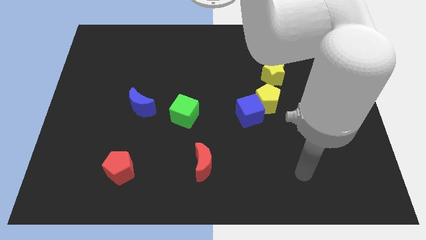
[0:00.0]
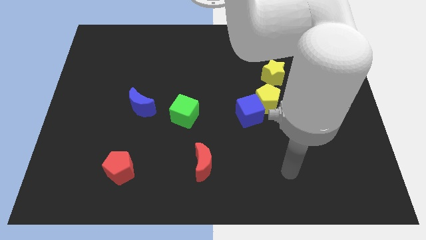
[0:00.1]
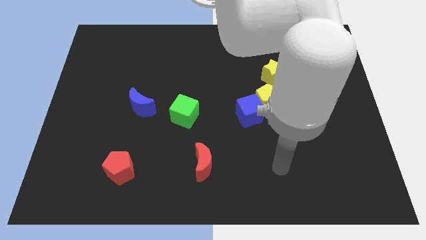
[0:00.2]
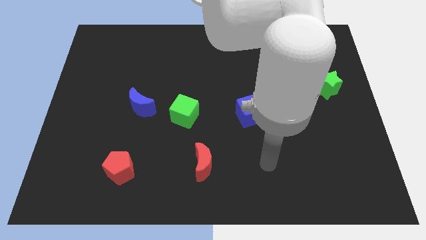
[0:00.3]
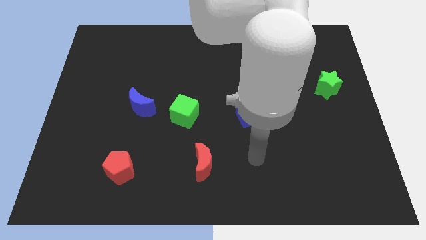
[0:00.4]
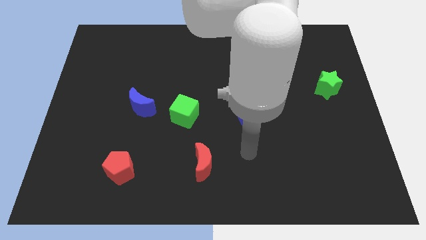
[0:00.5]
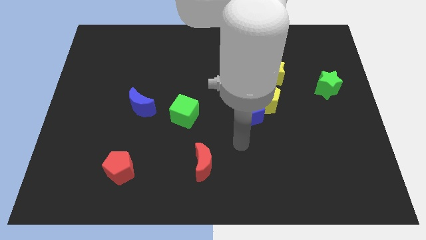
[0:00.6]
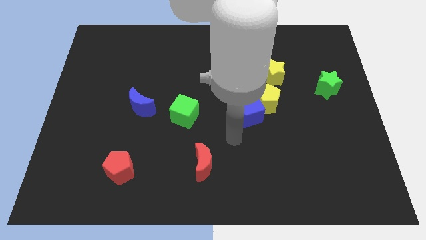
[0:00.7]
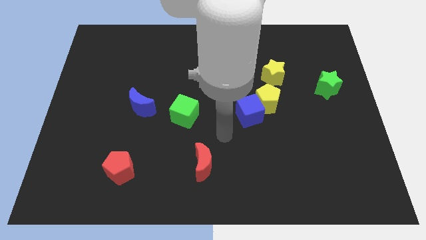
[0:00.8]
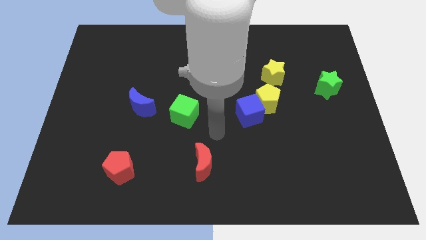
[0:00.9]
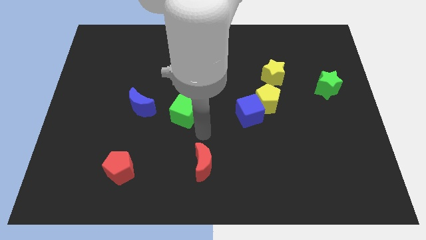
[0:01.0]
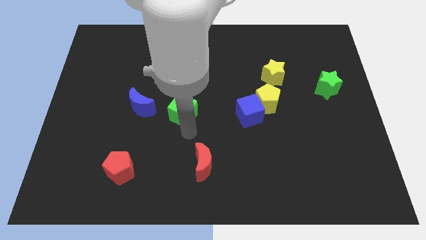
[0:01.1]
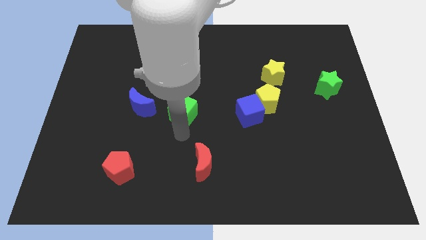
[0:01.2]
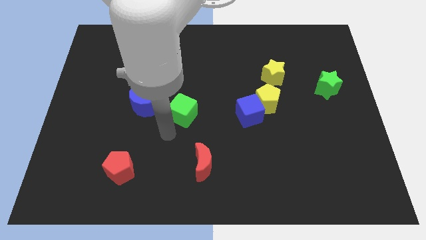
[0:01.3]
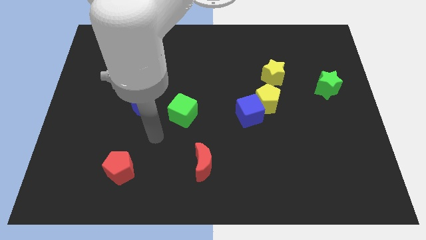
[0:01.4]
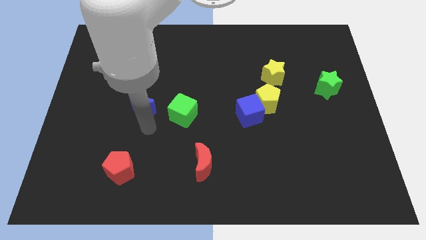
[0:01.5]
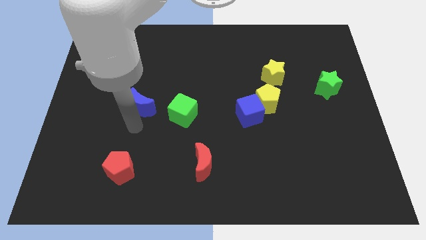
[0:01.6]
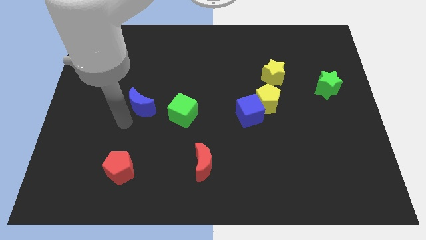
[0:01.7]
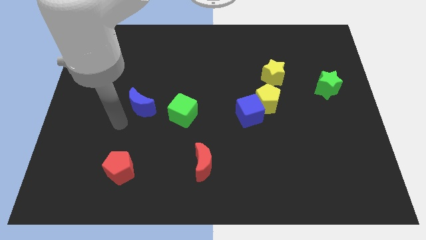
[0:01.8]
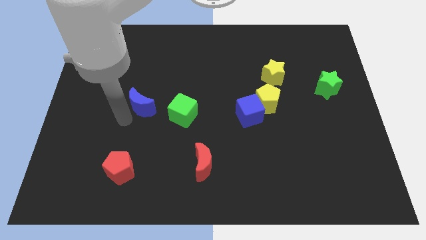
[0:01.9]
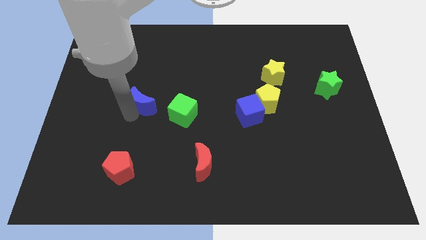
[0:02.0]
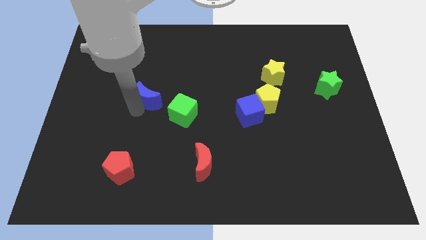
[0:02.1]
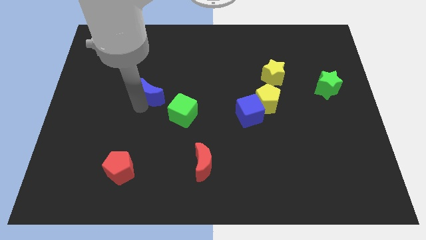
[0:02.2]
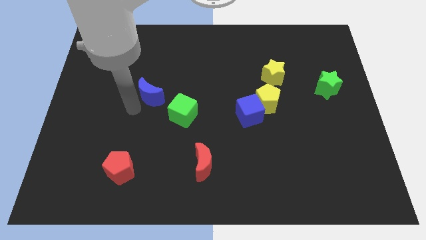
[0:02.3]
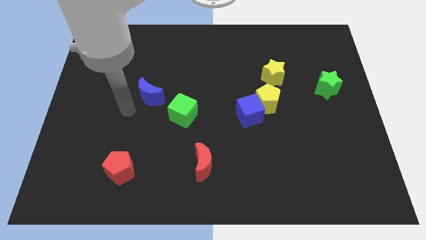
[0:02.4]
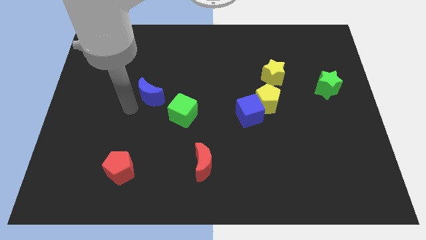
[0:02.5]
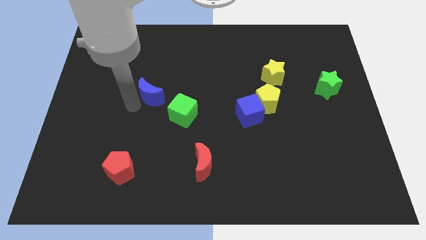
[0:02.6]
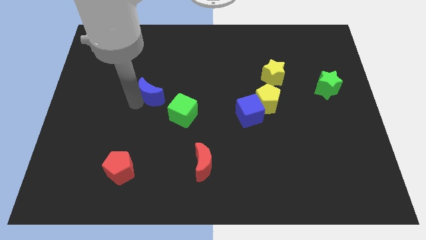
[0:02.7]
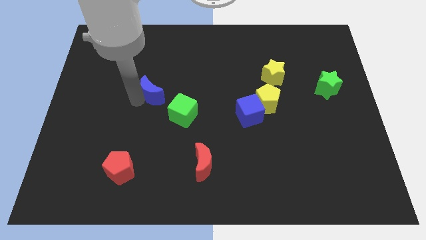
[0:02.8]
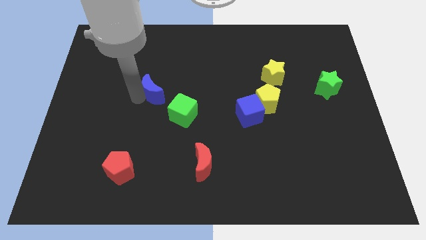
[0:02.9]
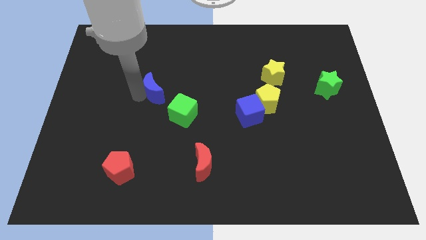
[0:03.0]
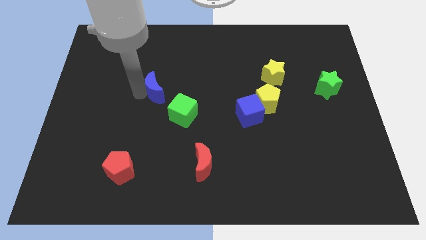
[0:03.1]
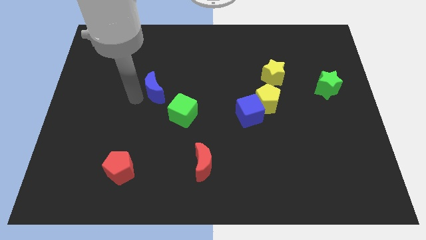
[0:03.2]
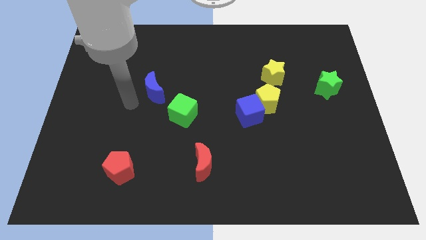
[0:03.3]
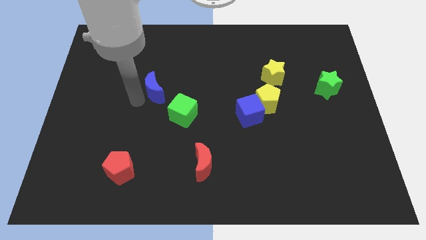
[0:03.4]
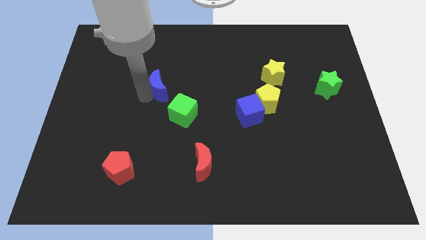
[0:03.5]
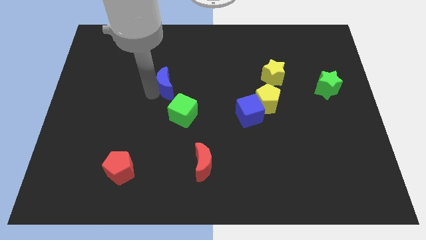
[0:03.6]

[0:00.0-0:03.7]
slide the blue moon up and to the right a little bit

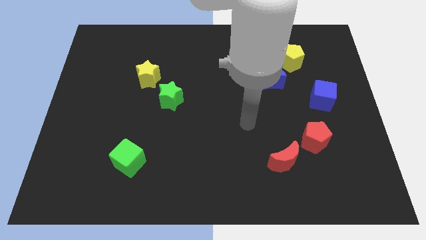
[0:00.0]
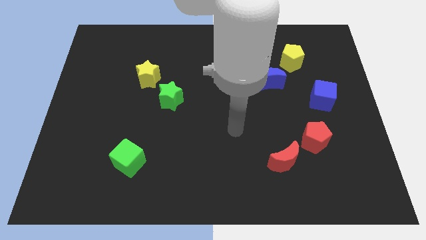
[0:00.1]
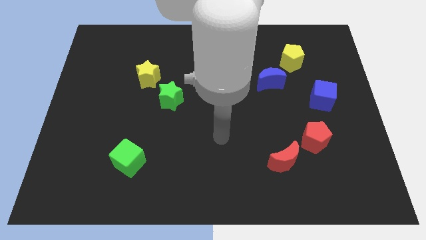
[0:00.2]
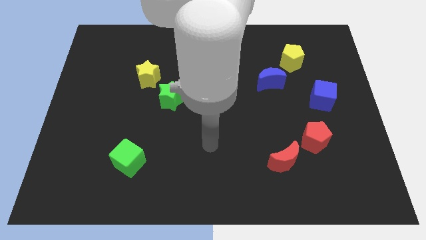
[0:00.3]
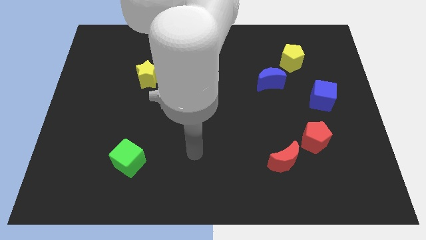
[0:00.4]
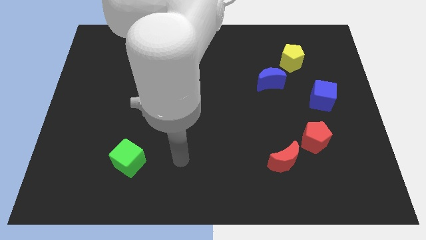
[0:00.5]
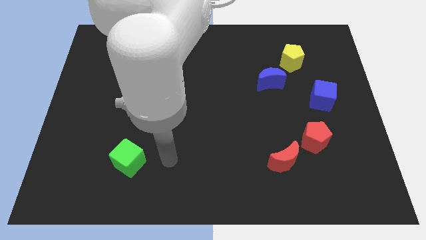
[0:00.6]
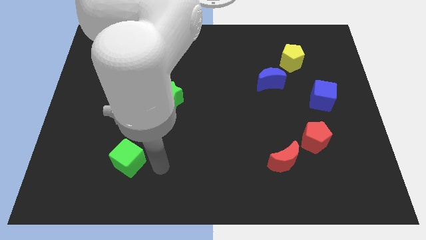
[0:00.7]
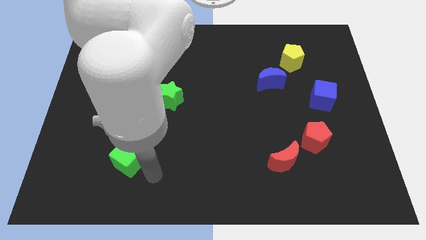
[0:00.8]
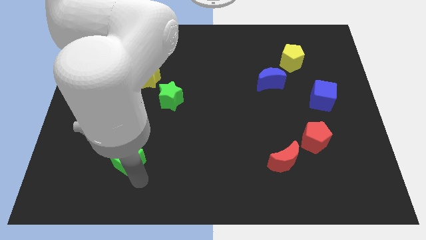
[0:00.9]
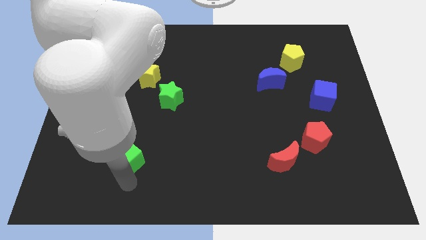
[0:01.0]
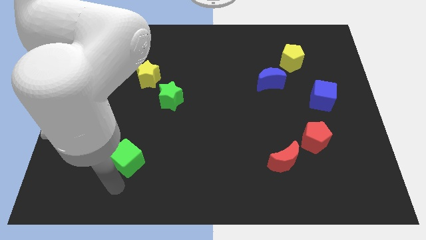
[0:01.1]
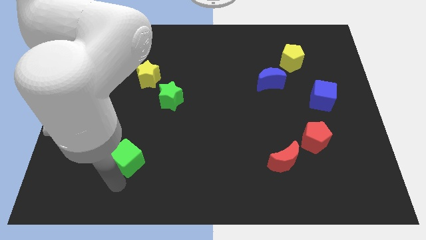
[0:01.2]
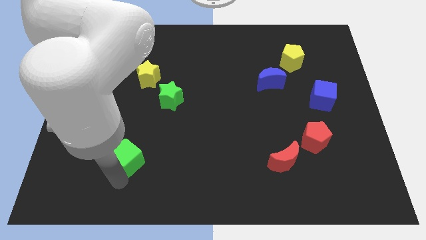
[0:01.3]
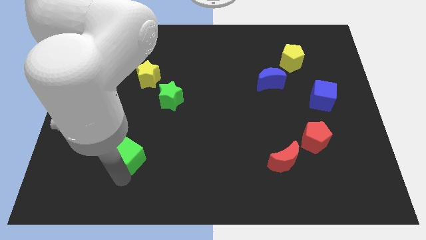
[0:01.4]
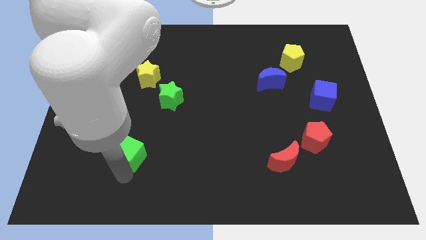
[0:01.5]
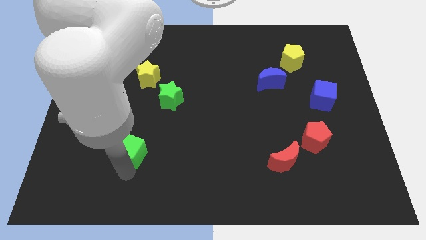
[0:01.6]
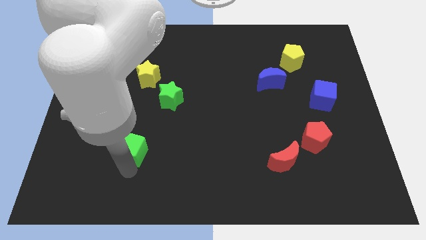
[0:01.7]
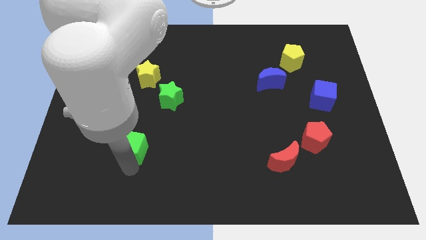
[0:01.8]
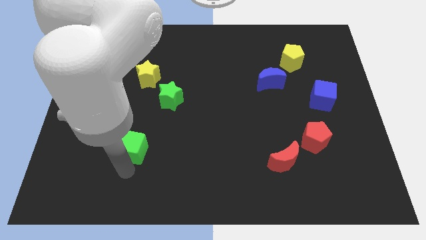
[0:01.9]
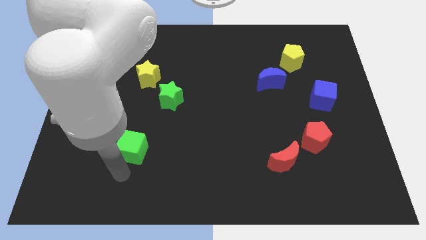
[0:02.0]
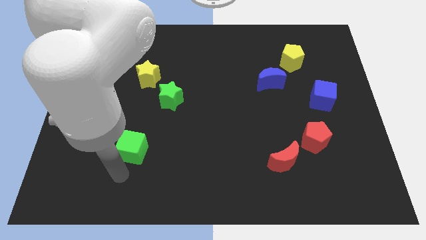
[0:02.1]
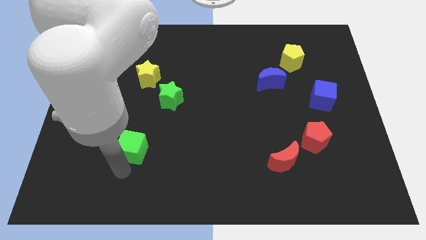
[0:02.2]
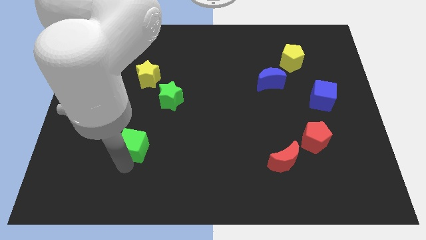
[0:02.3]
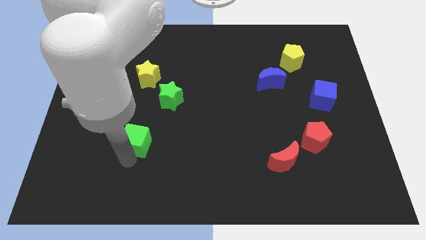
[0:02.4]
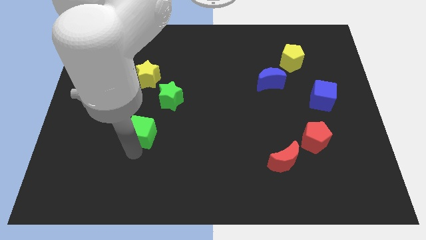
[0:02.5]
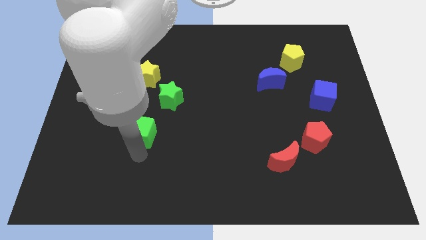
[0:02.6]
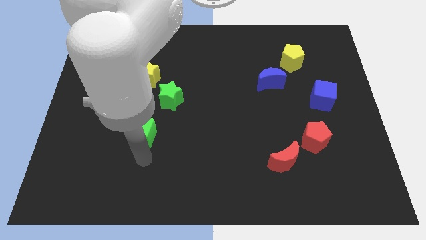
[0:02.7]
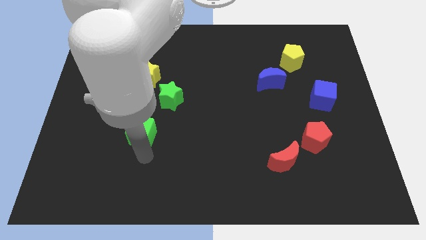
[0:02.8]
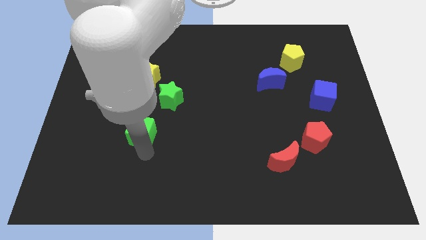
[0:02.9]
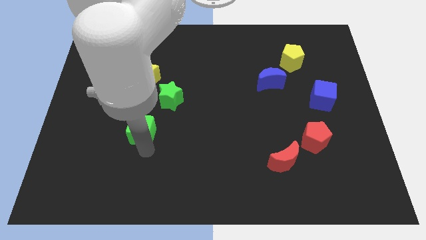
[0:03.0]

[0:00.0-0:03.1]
slightly push the green cube up

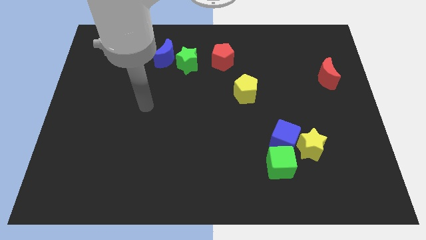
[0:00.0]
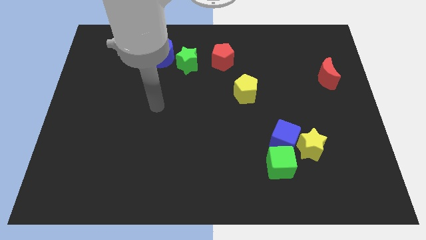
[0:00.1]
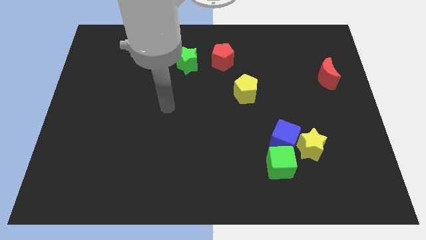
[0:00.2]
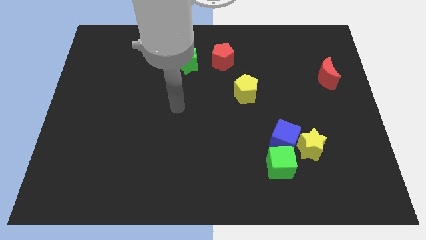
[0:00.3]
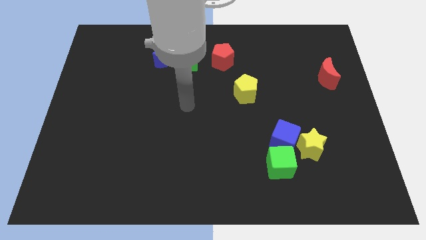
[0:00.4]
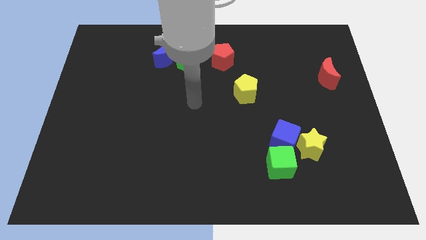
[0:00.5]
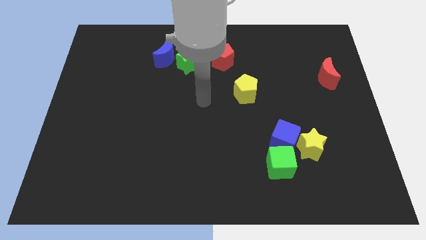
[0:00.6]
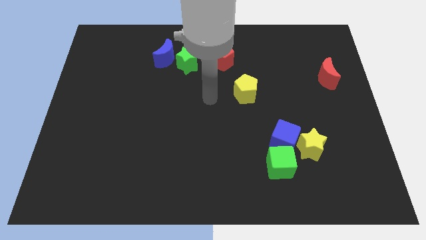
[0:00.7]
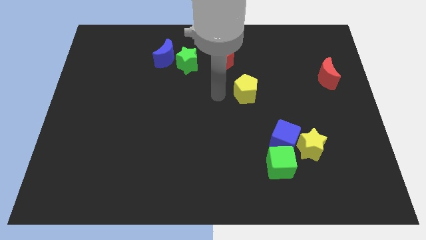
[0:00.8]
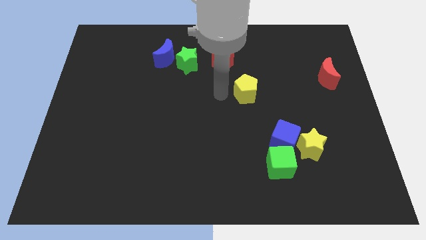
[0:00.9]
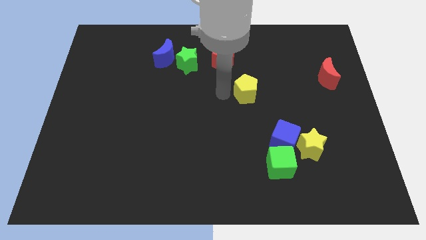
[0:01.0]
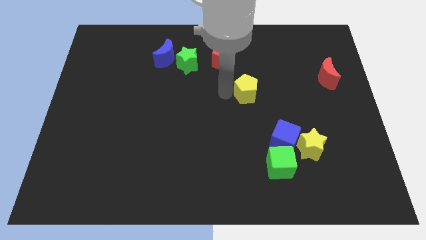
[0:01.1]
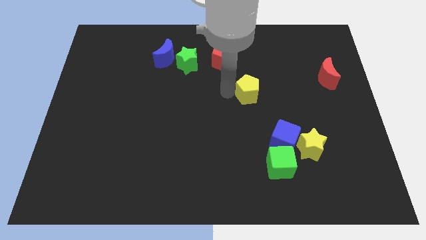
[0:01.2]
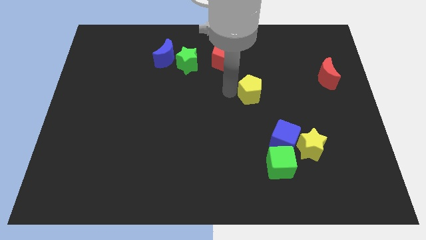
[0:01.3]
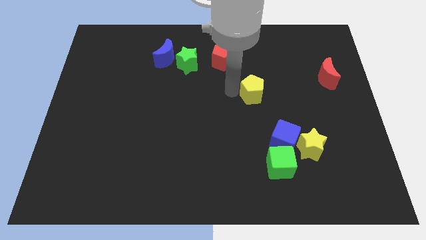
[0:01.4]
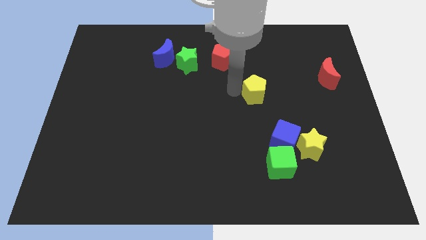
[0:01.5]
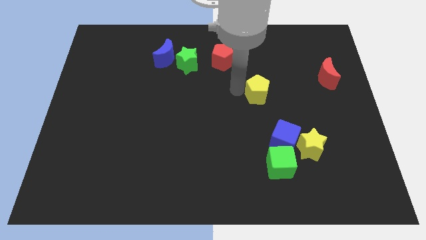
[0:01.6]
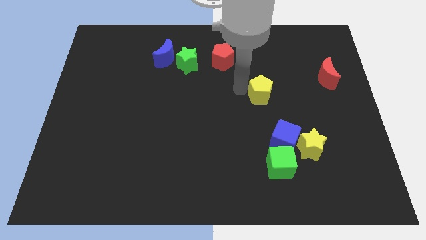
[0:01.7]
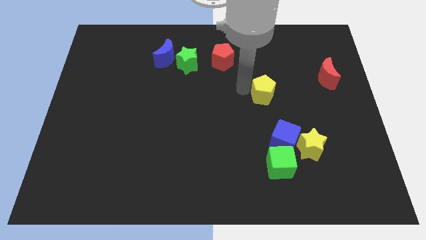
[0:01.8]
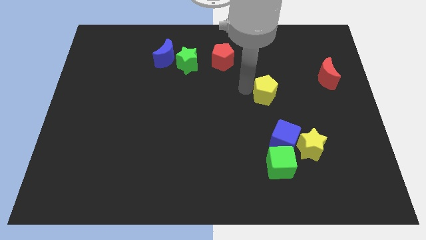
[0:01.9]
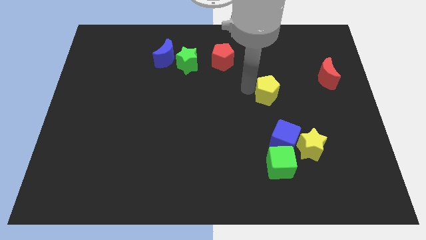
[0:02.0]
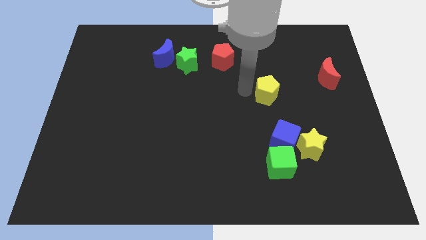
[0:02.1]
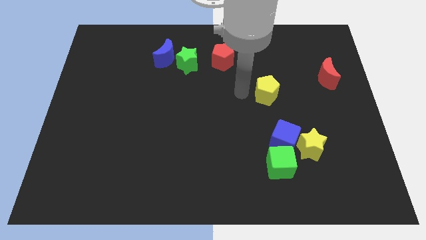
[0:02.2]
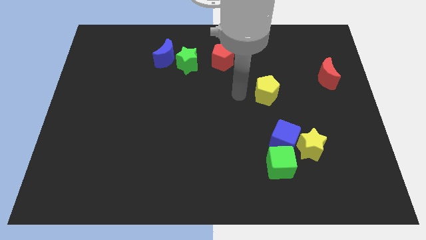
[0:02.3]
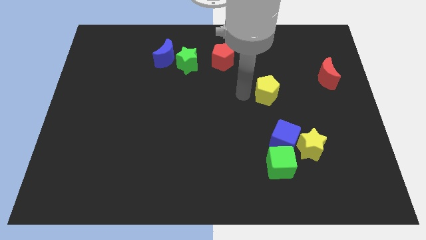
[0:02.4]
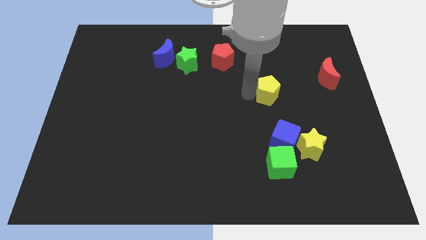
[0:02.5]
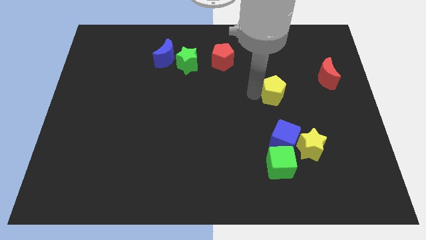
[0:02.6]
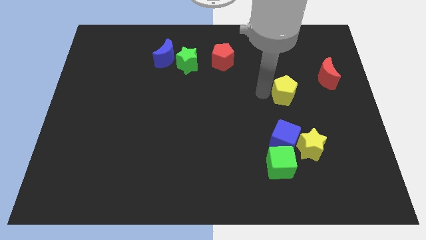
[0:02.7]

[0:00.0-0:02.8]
slightly slide the yellow pentagon right
